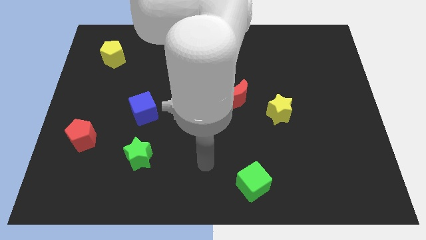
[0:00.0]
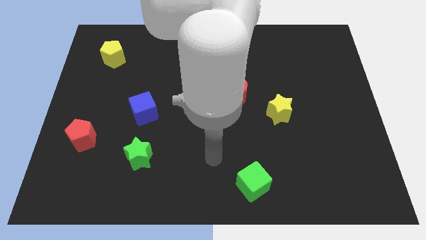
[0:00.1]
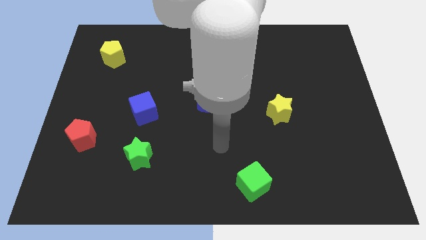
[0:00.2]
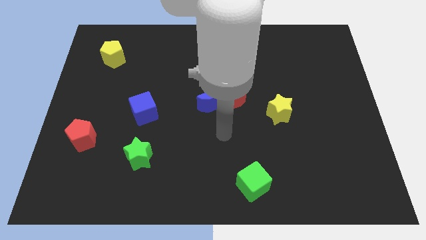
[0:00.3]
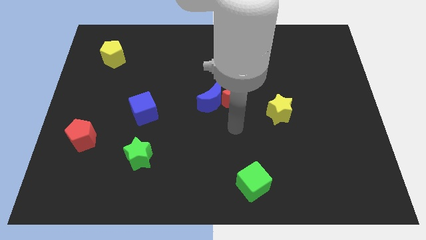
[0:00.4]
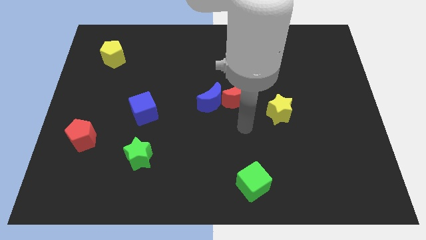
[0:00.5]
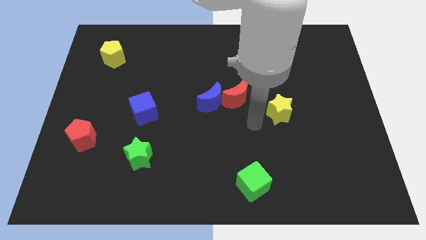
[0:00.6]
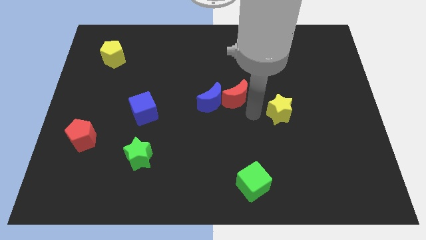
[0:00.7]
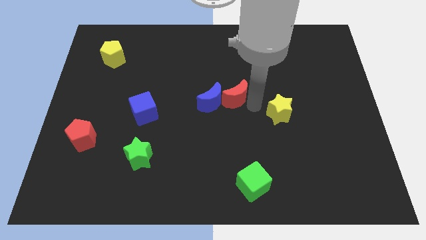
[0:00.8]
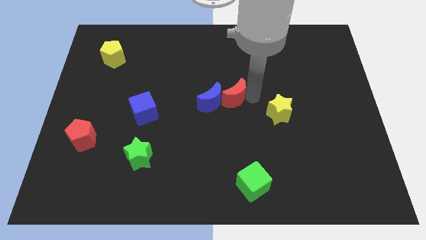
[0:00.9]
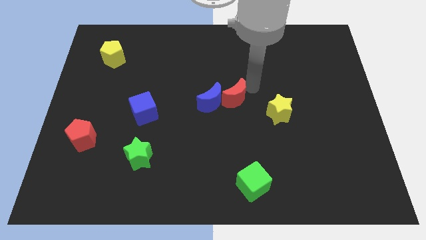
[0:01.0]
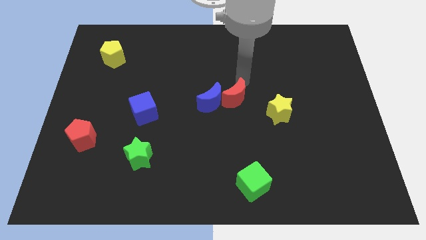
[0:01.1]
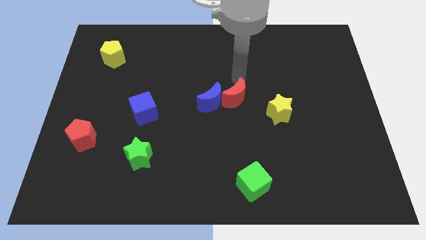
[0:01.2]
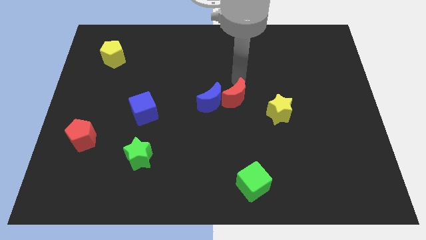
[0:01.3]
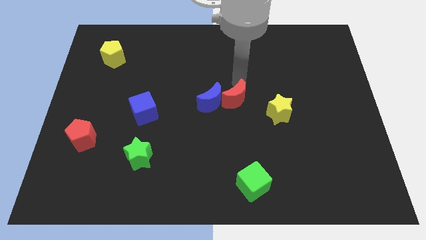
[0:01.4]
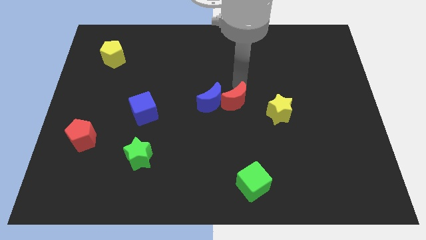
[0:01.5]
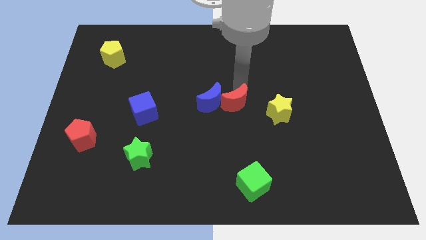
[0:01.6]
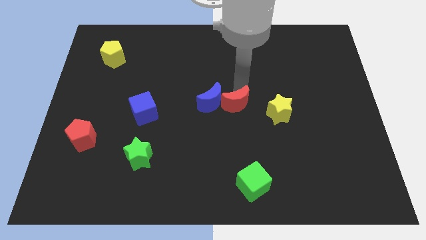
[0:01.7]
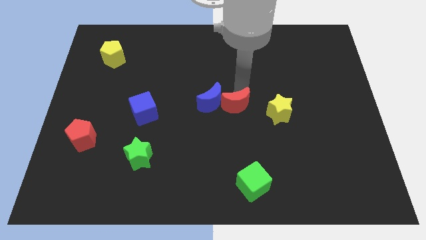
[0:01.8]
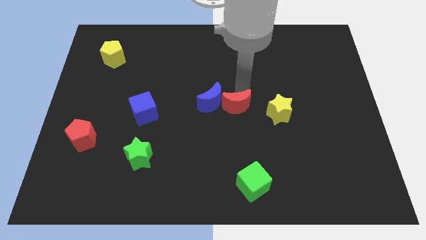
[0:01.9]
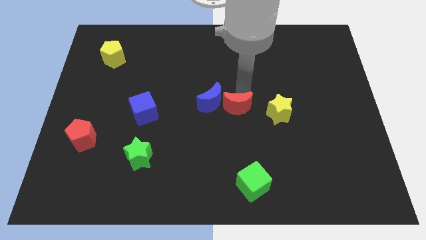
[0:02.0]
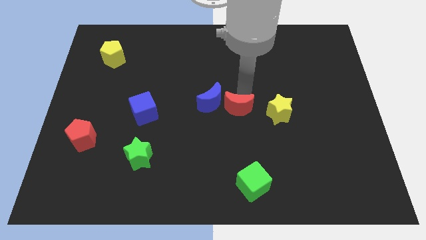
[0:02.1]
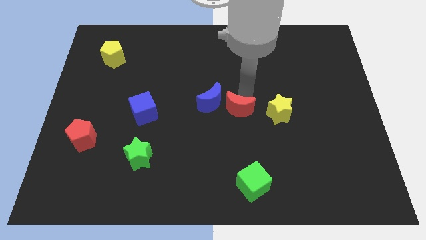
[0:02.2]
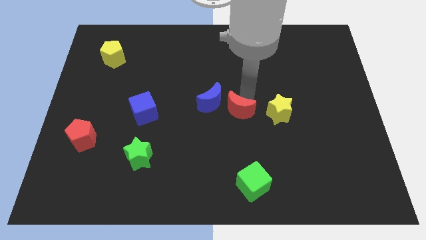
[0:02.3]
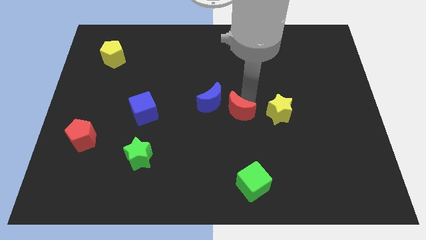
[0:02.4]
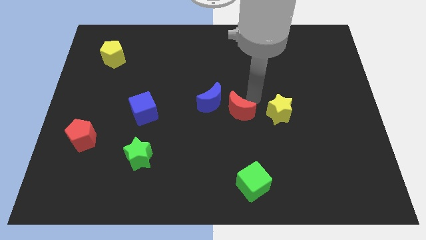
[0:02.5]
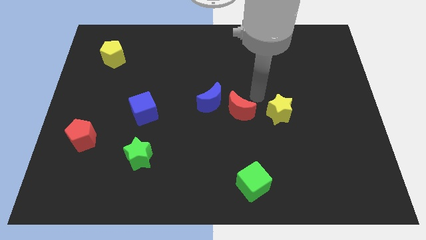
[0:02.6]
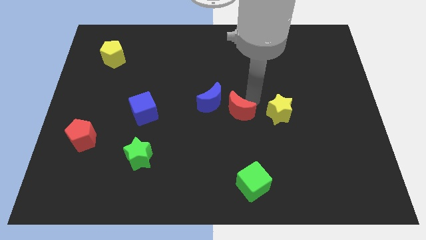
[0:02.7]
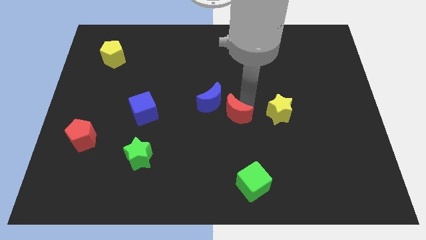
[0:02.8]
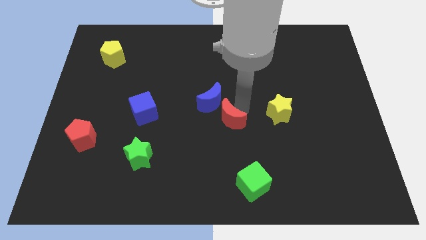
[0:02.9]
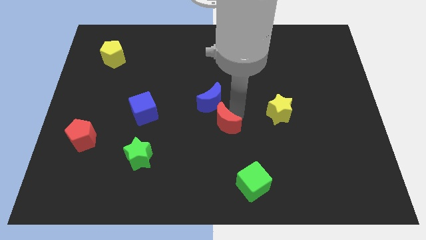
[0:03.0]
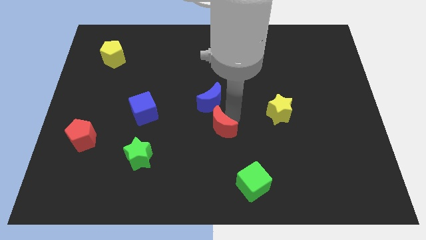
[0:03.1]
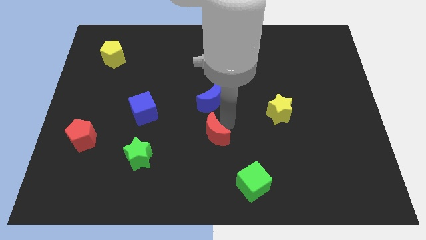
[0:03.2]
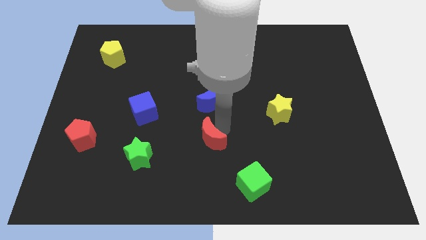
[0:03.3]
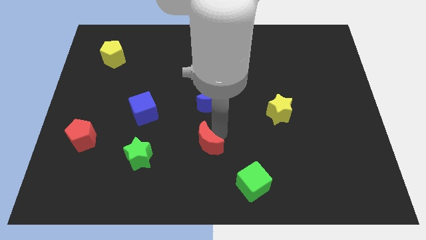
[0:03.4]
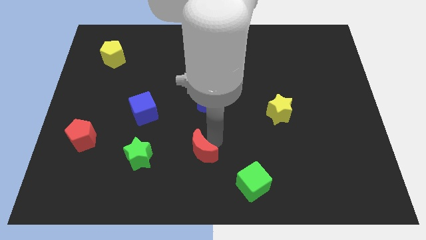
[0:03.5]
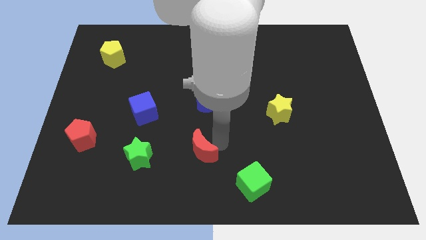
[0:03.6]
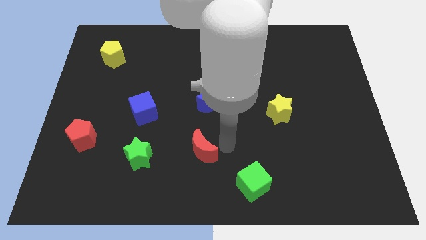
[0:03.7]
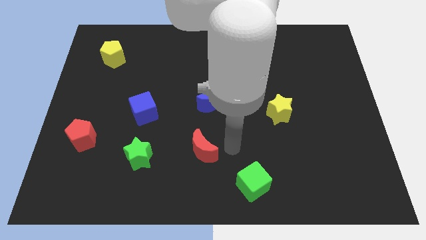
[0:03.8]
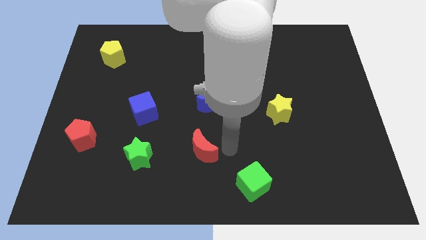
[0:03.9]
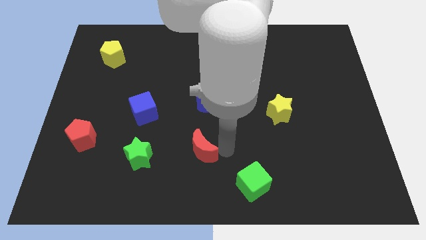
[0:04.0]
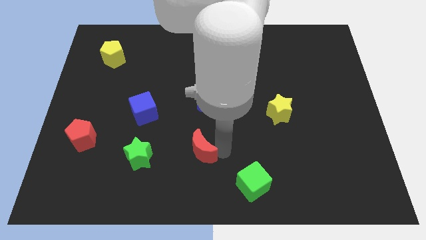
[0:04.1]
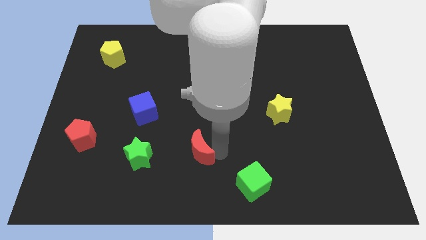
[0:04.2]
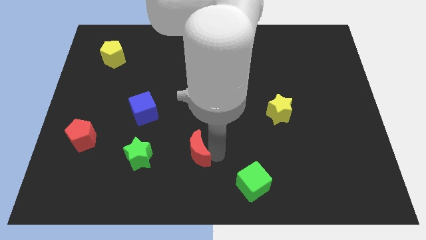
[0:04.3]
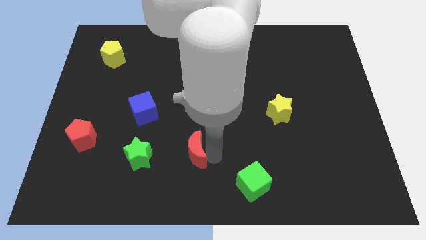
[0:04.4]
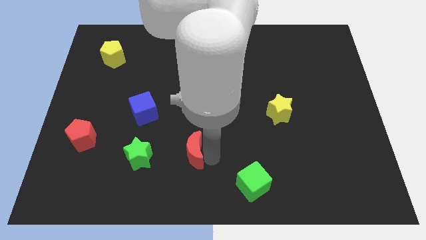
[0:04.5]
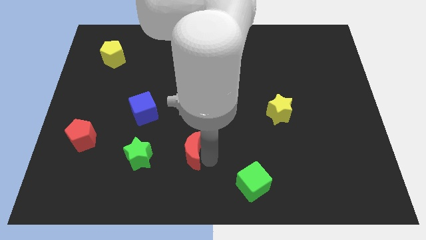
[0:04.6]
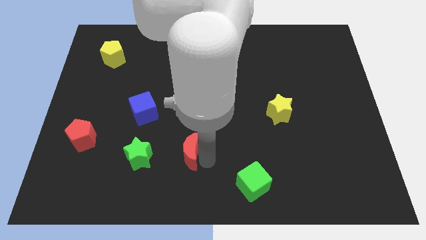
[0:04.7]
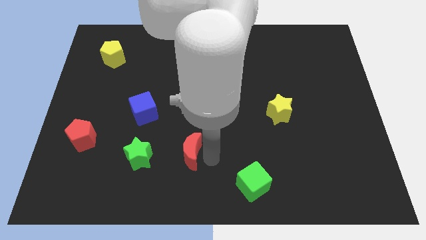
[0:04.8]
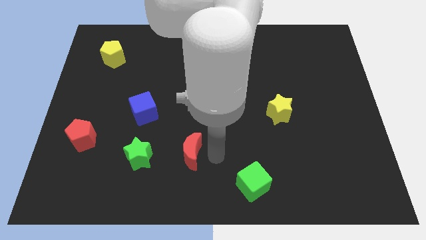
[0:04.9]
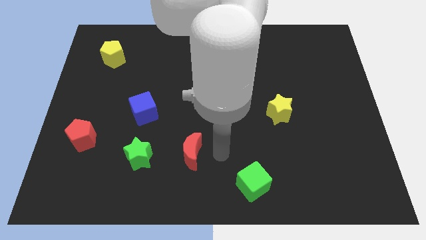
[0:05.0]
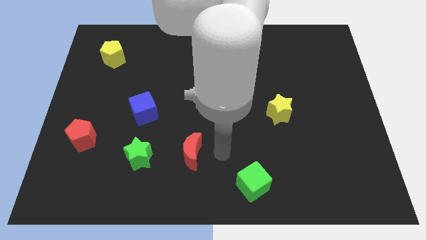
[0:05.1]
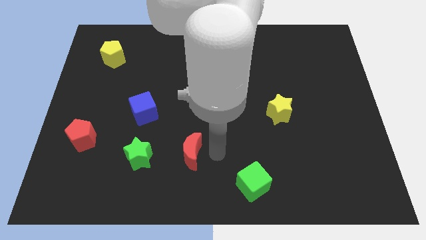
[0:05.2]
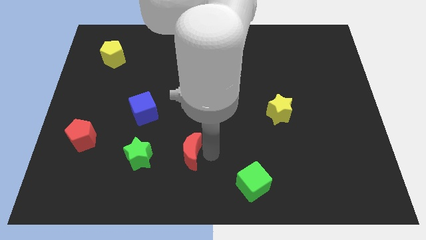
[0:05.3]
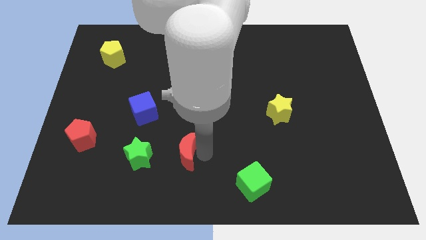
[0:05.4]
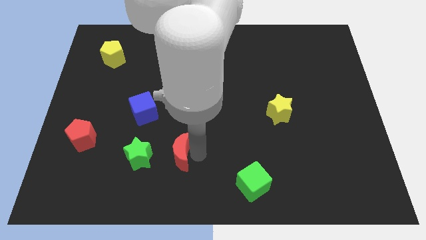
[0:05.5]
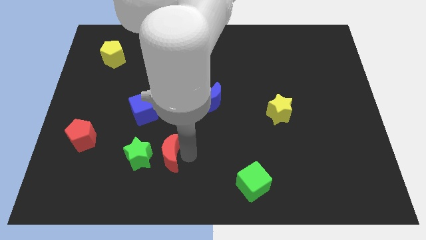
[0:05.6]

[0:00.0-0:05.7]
push the red moon next to the green star

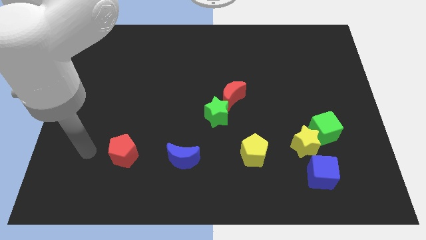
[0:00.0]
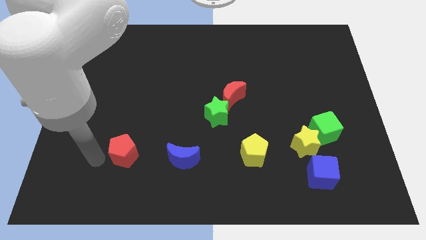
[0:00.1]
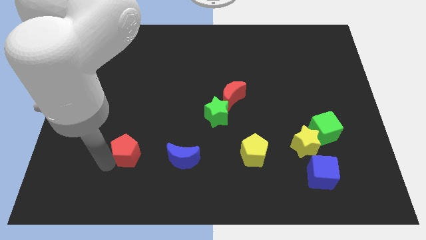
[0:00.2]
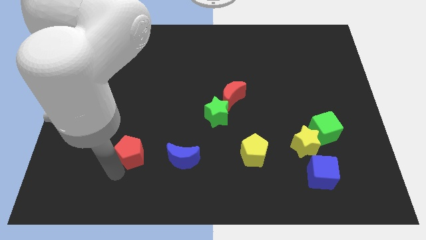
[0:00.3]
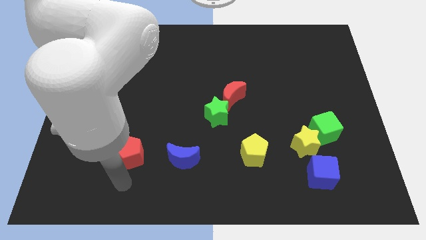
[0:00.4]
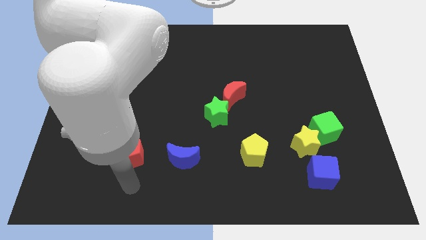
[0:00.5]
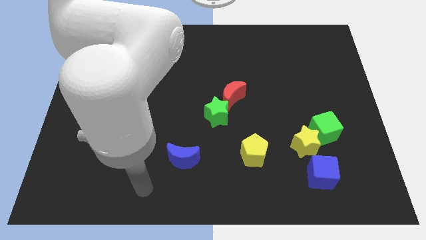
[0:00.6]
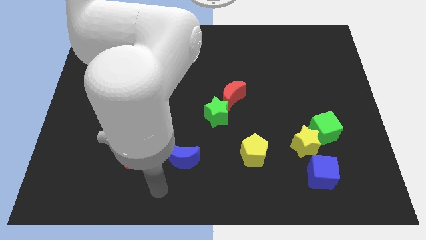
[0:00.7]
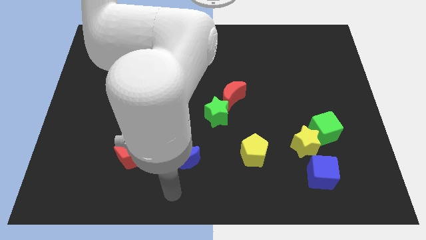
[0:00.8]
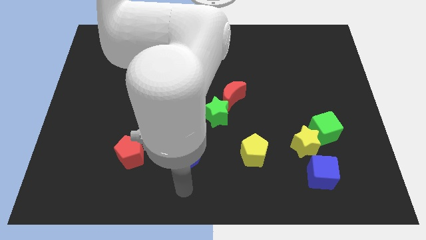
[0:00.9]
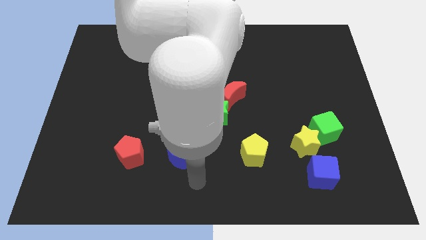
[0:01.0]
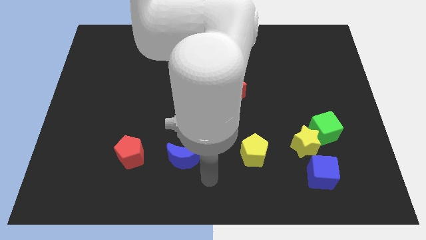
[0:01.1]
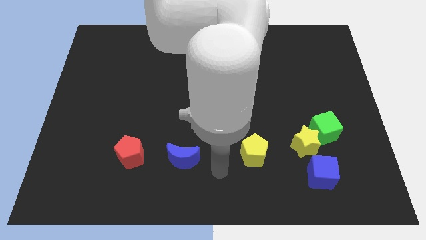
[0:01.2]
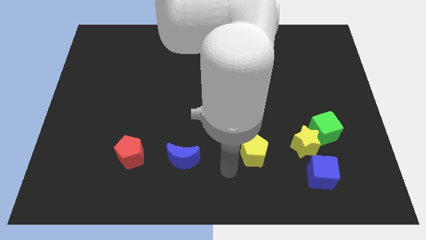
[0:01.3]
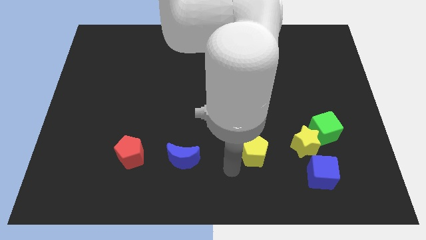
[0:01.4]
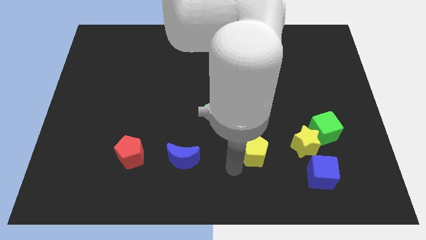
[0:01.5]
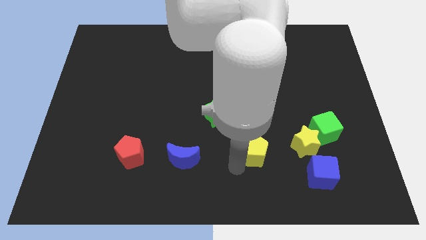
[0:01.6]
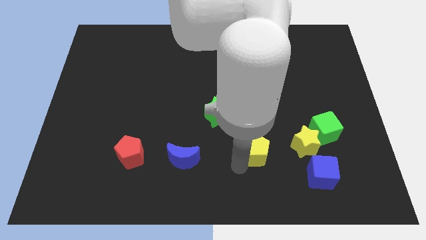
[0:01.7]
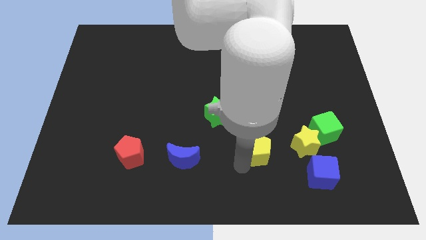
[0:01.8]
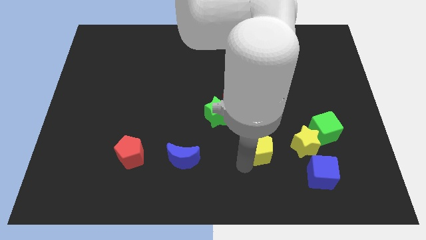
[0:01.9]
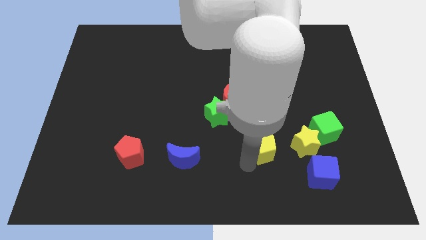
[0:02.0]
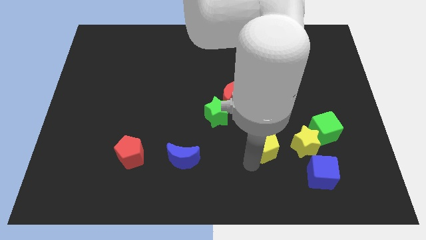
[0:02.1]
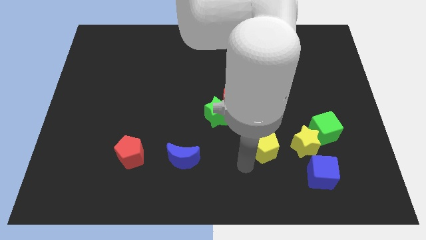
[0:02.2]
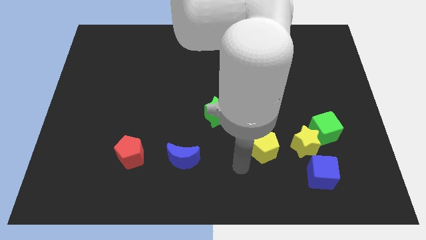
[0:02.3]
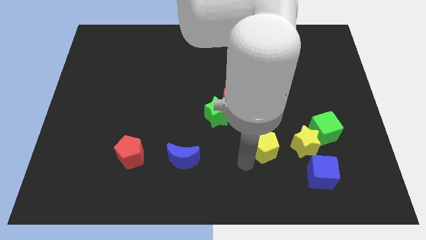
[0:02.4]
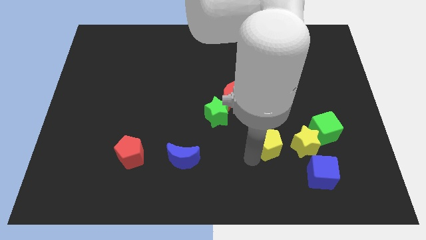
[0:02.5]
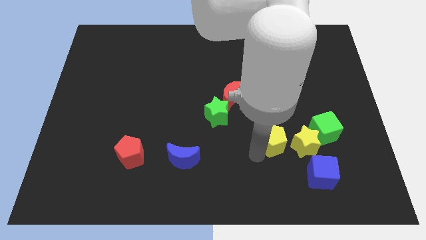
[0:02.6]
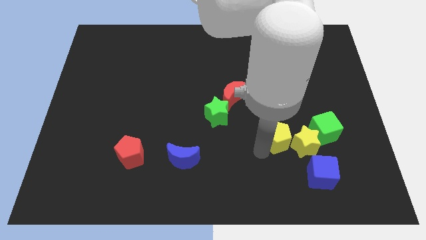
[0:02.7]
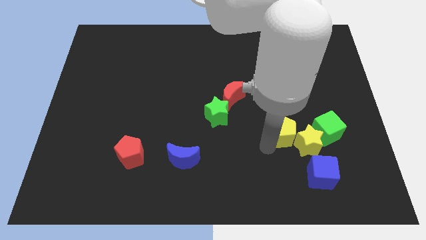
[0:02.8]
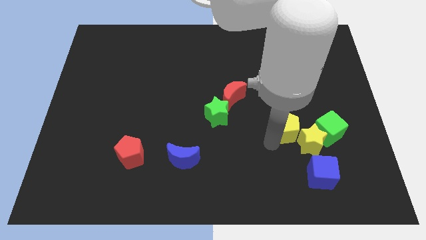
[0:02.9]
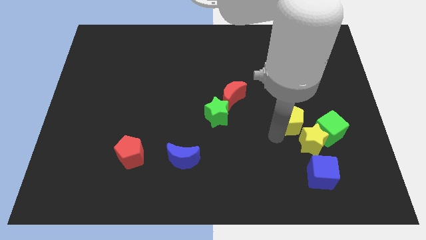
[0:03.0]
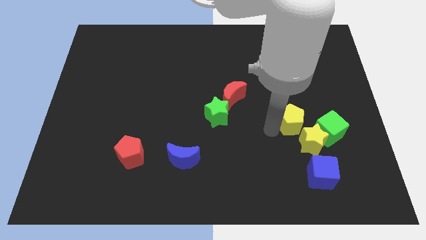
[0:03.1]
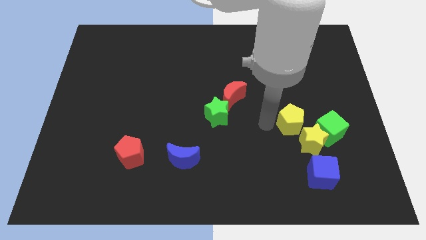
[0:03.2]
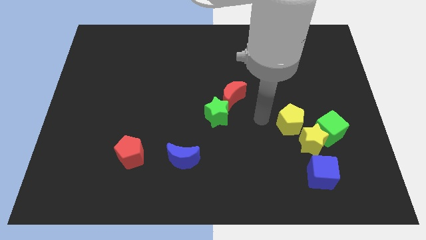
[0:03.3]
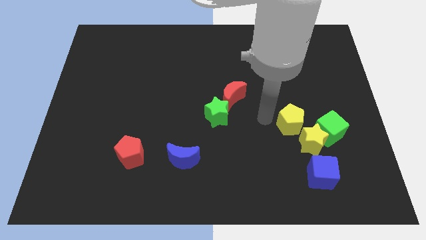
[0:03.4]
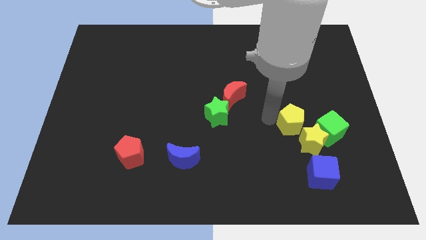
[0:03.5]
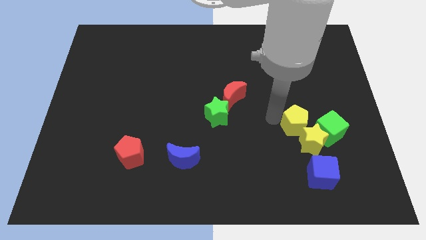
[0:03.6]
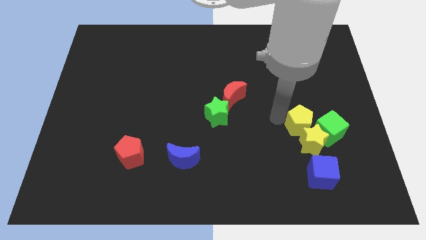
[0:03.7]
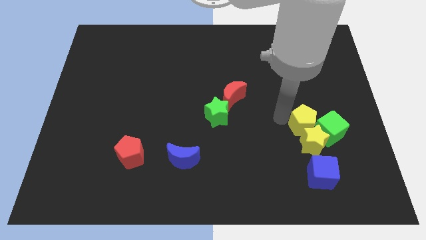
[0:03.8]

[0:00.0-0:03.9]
push the yellow pentagon next to the green cube
